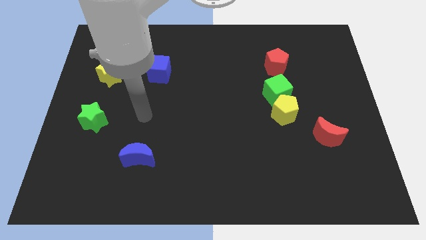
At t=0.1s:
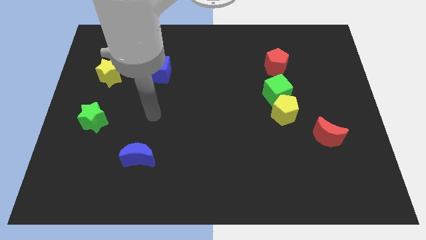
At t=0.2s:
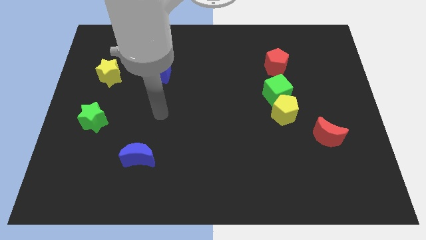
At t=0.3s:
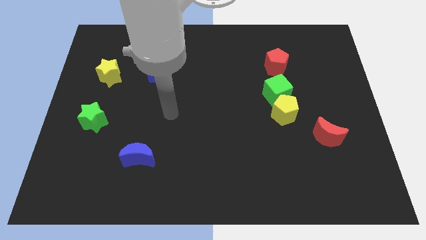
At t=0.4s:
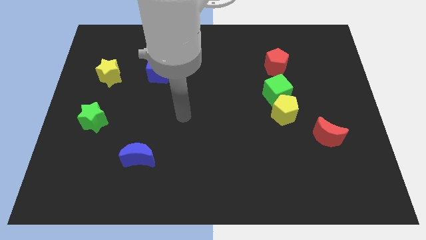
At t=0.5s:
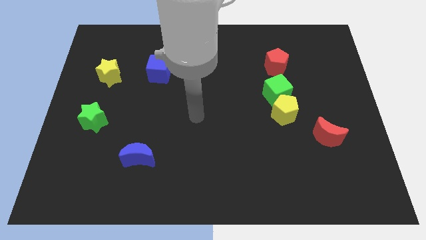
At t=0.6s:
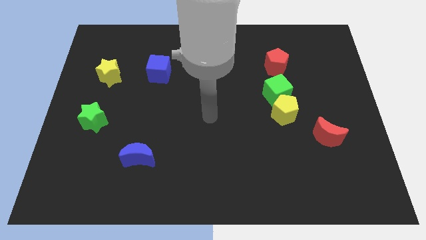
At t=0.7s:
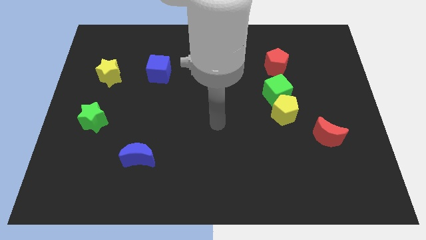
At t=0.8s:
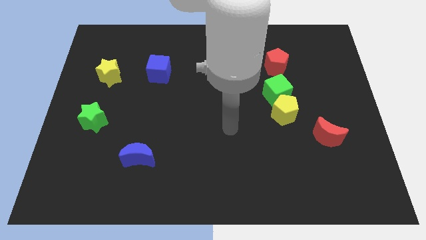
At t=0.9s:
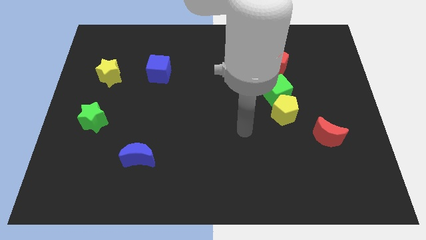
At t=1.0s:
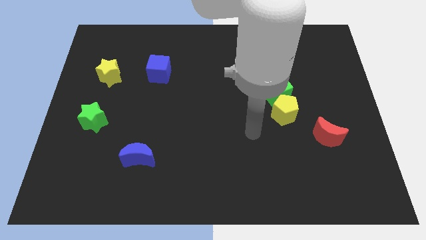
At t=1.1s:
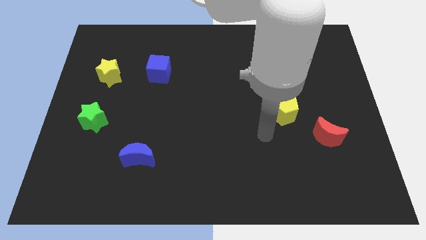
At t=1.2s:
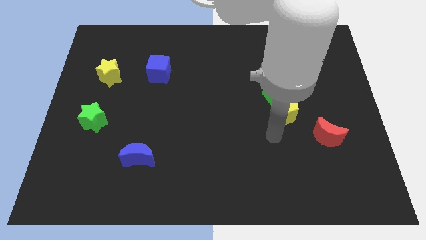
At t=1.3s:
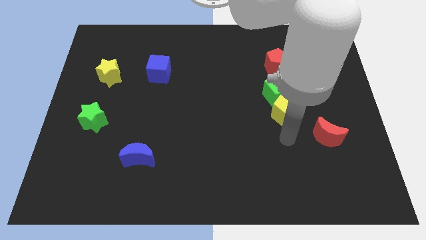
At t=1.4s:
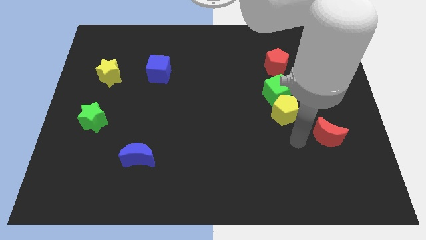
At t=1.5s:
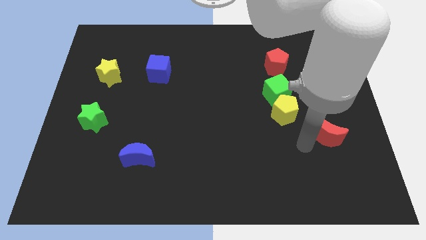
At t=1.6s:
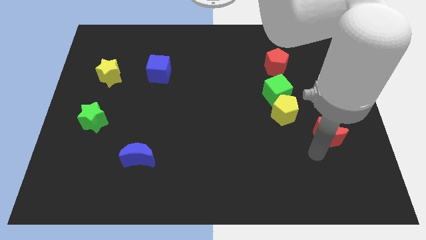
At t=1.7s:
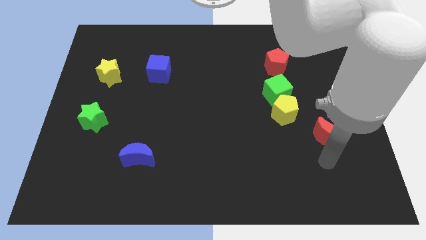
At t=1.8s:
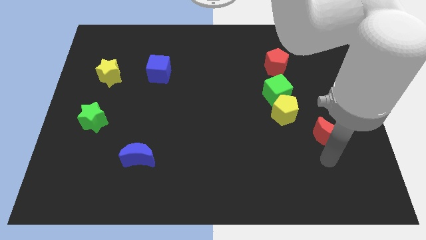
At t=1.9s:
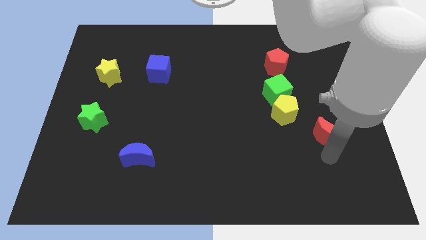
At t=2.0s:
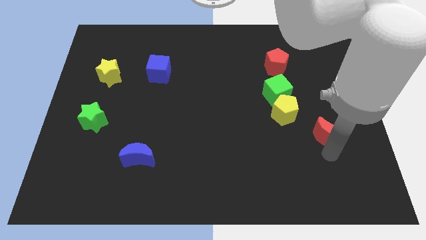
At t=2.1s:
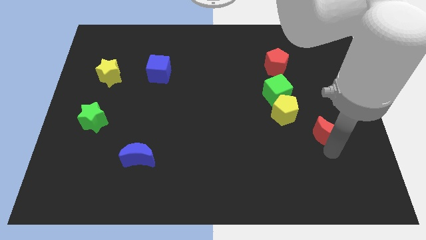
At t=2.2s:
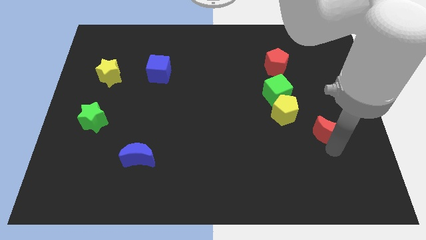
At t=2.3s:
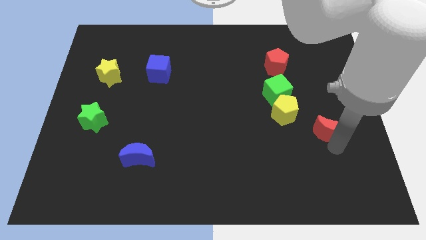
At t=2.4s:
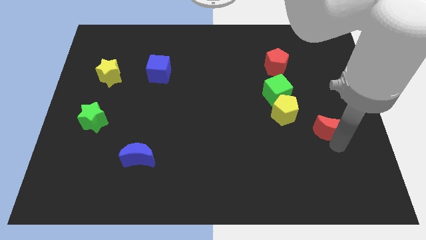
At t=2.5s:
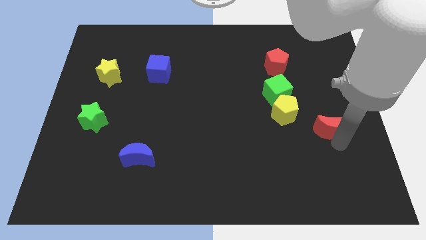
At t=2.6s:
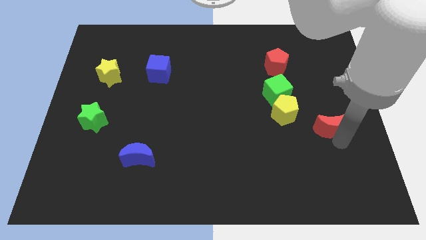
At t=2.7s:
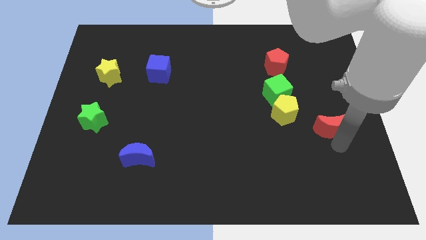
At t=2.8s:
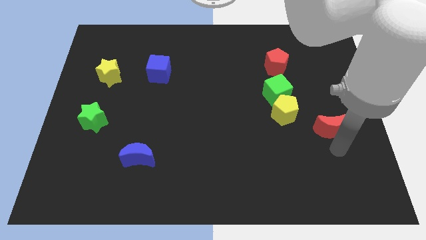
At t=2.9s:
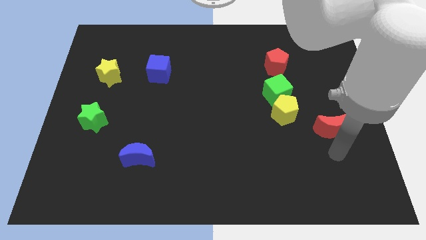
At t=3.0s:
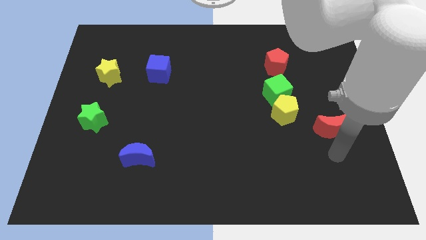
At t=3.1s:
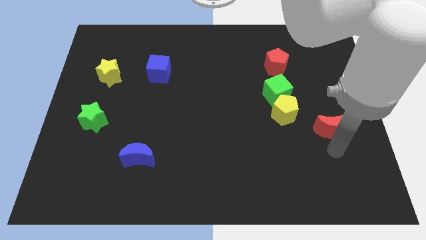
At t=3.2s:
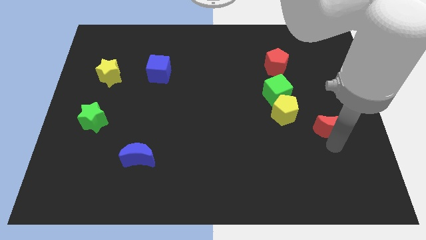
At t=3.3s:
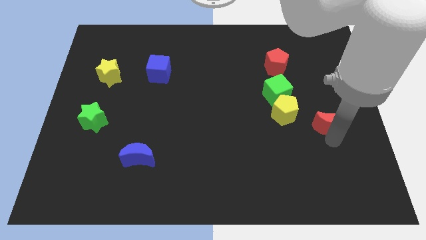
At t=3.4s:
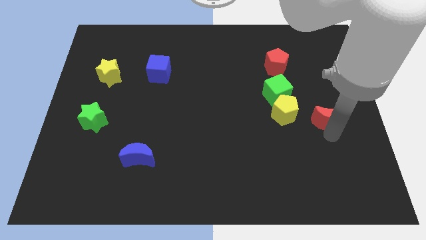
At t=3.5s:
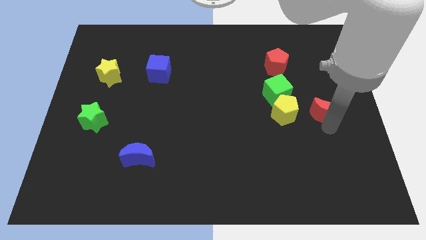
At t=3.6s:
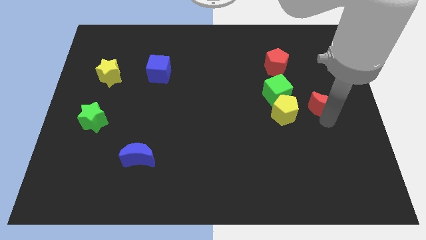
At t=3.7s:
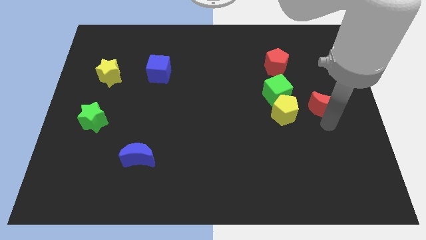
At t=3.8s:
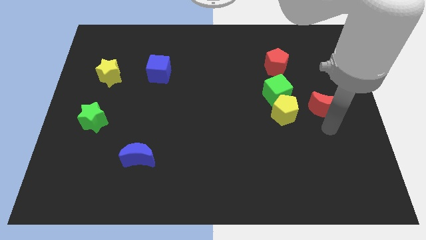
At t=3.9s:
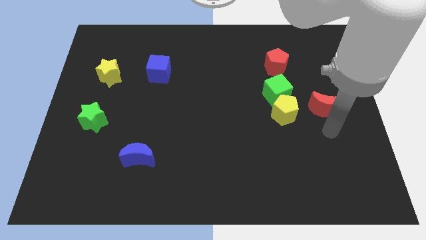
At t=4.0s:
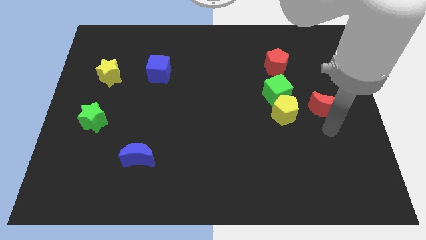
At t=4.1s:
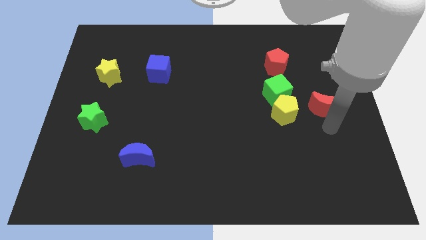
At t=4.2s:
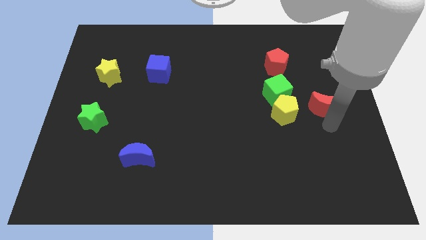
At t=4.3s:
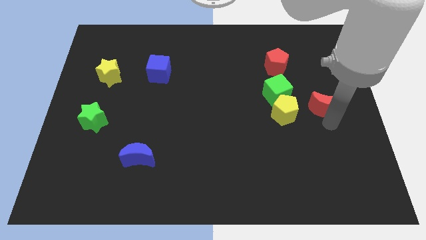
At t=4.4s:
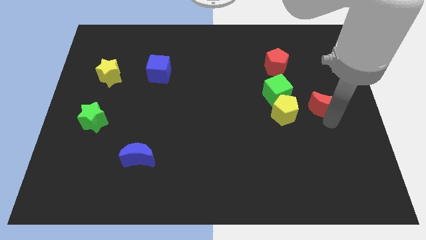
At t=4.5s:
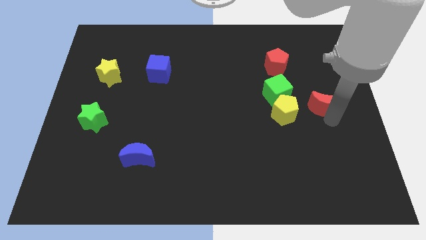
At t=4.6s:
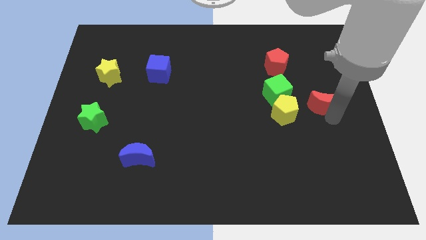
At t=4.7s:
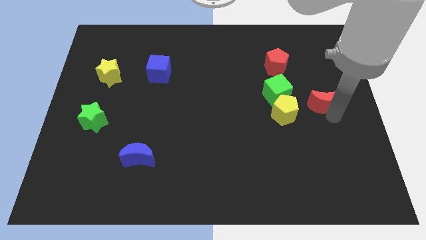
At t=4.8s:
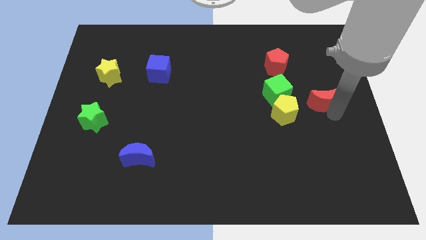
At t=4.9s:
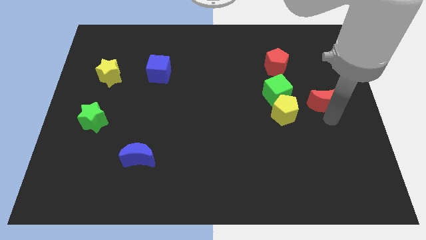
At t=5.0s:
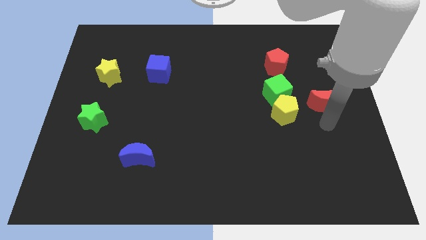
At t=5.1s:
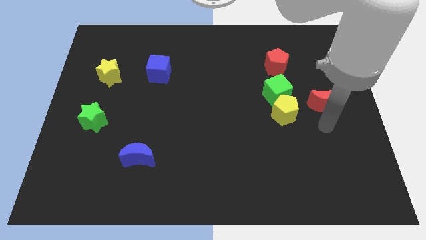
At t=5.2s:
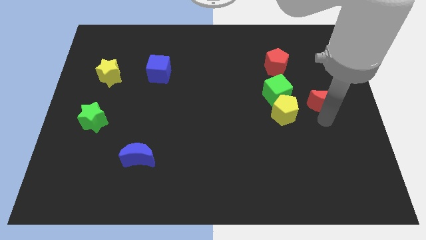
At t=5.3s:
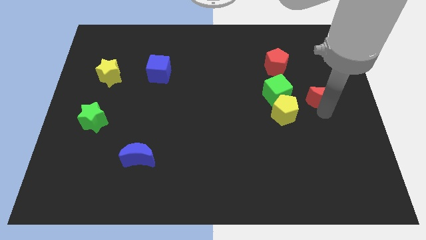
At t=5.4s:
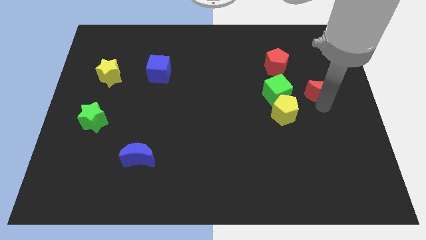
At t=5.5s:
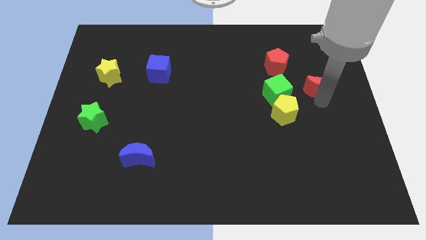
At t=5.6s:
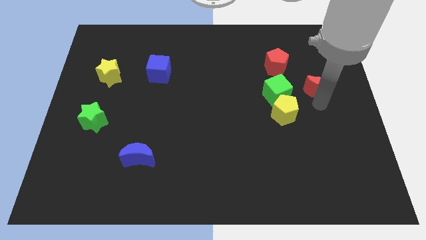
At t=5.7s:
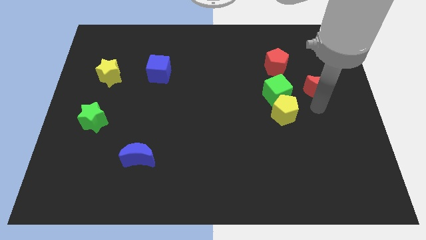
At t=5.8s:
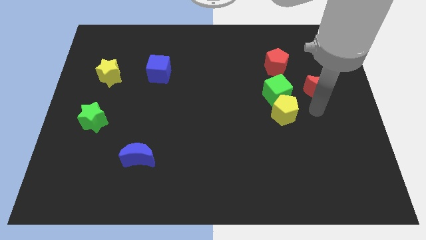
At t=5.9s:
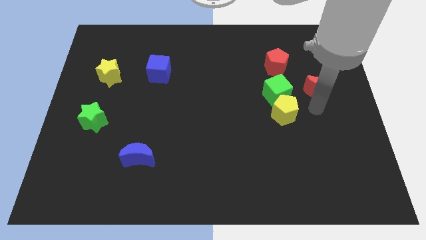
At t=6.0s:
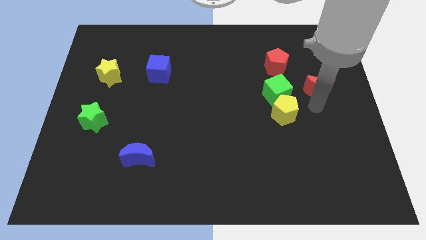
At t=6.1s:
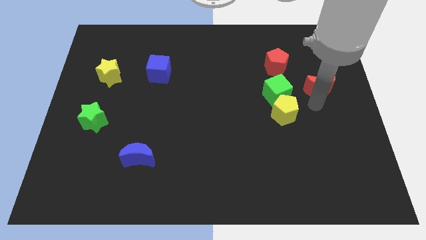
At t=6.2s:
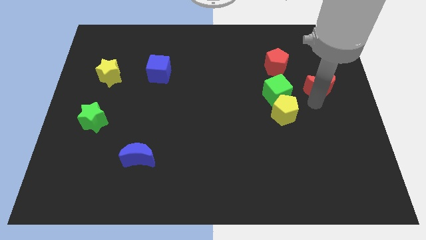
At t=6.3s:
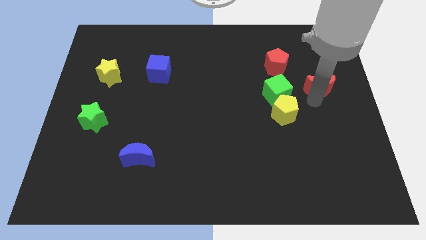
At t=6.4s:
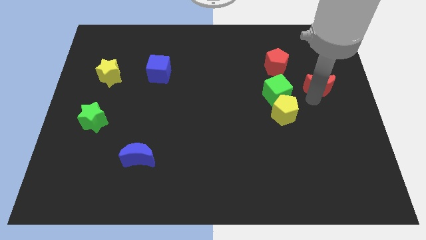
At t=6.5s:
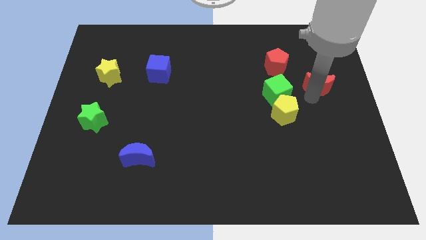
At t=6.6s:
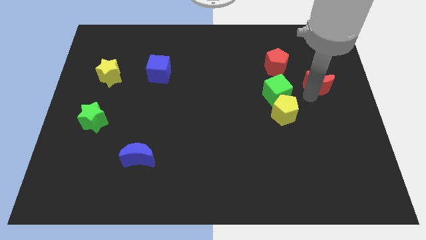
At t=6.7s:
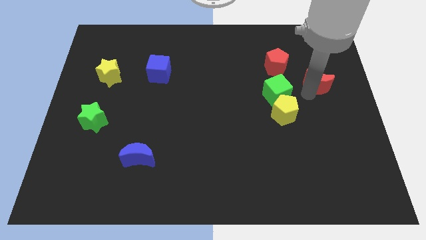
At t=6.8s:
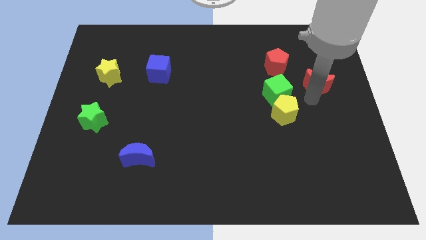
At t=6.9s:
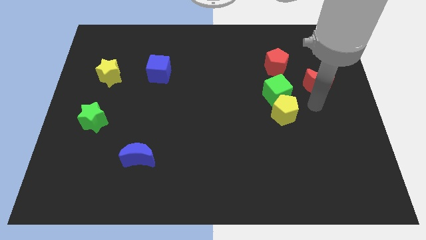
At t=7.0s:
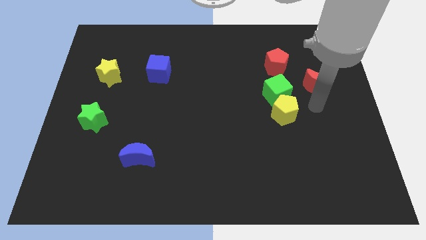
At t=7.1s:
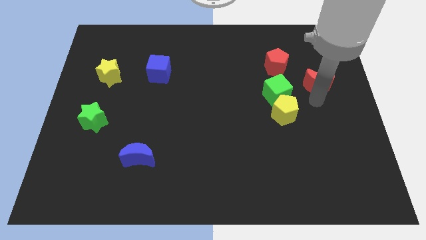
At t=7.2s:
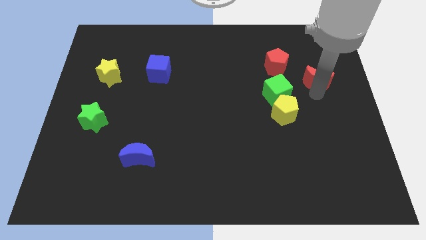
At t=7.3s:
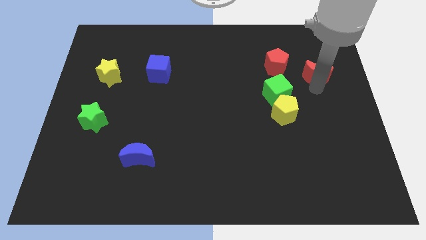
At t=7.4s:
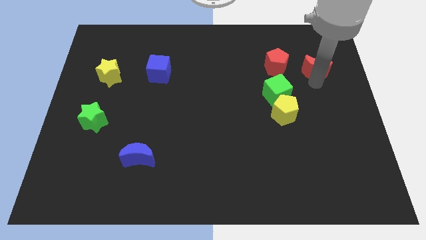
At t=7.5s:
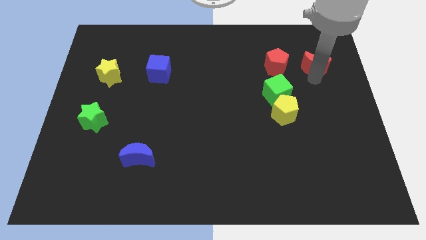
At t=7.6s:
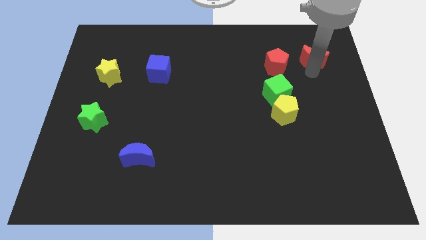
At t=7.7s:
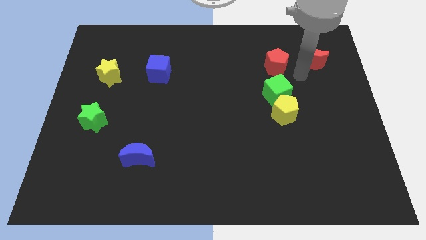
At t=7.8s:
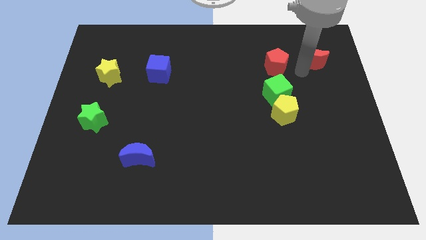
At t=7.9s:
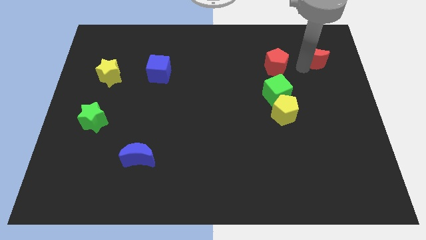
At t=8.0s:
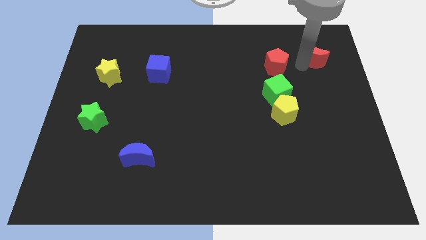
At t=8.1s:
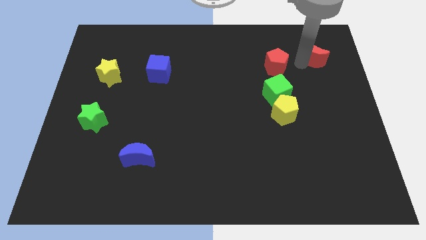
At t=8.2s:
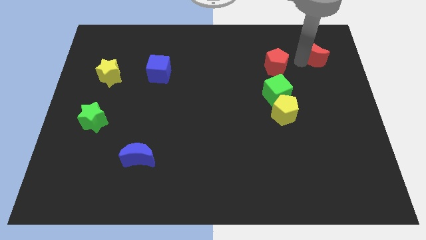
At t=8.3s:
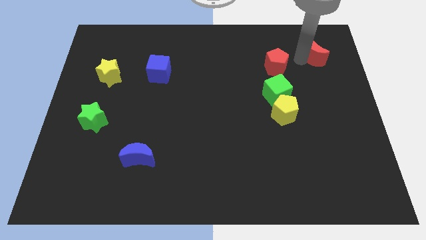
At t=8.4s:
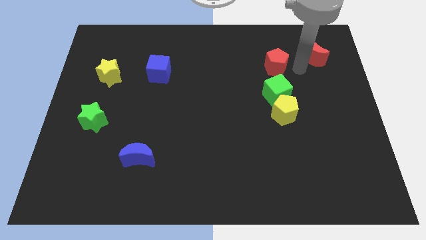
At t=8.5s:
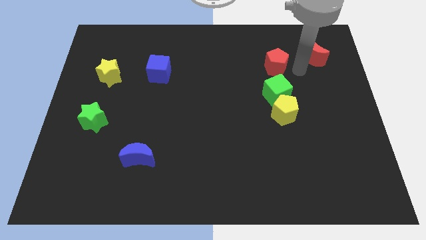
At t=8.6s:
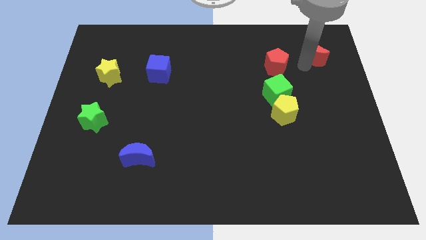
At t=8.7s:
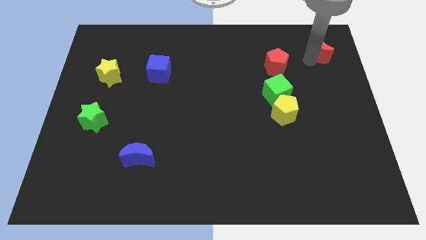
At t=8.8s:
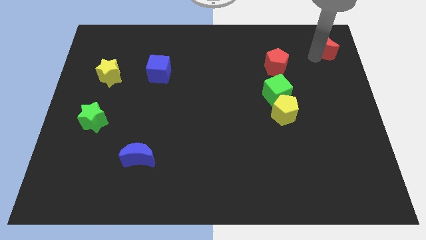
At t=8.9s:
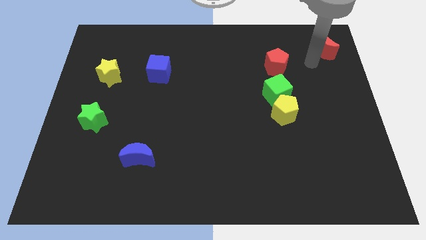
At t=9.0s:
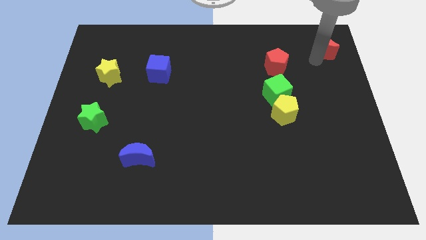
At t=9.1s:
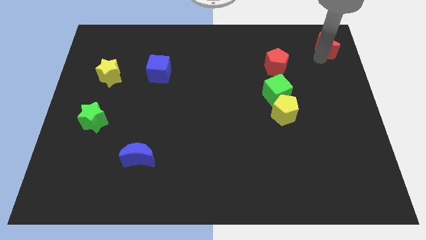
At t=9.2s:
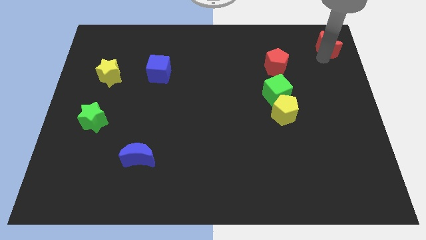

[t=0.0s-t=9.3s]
slide the red moon to the top right corner
